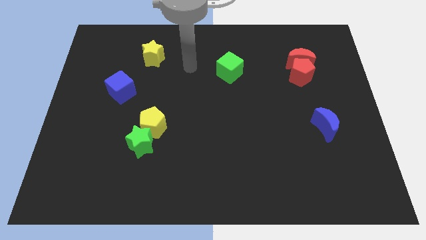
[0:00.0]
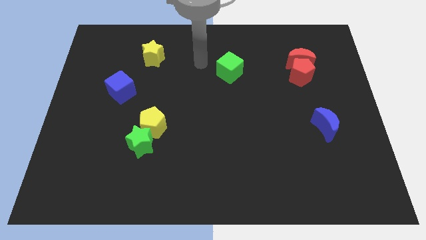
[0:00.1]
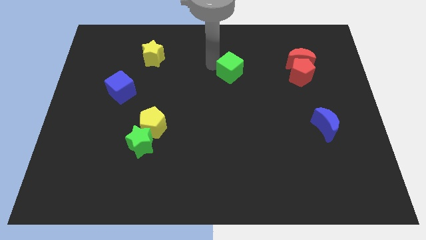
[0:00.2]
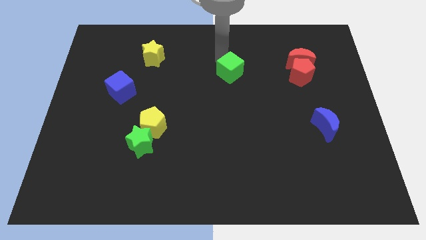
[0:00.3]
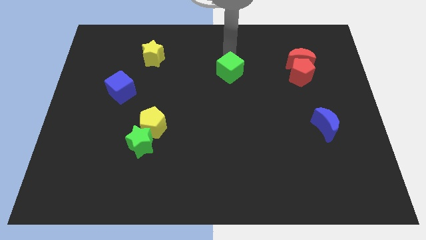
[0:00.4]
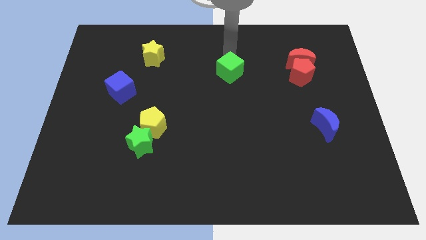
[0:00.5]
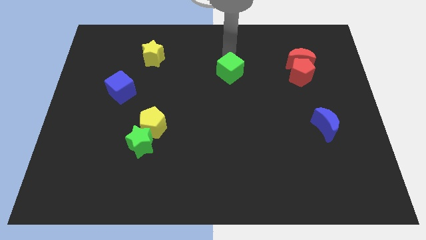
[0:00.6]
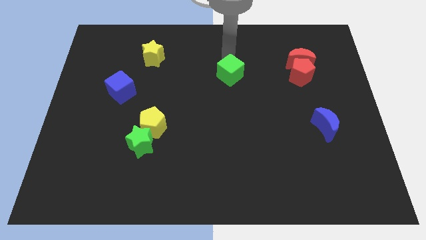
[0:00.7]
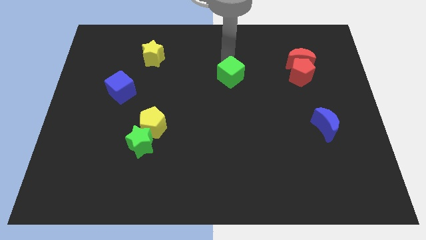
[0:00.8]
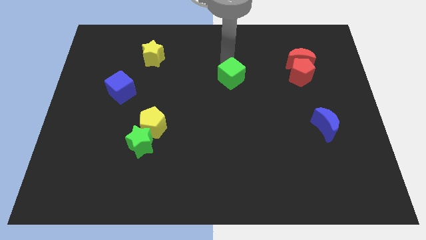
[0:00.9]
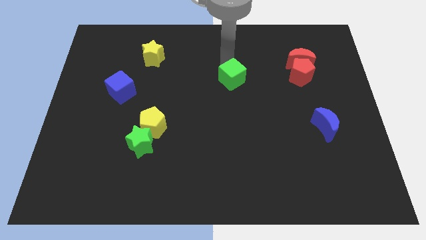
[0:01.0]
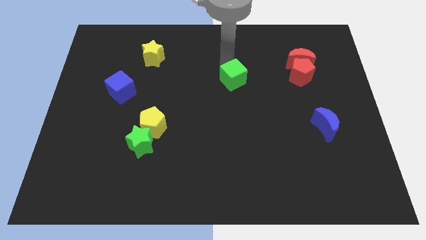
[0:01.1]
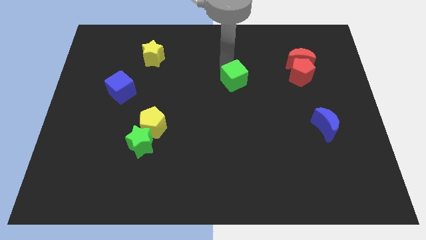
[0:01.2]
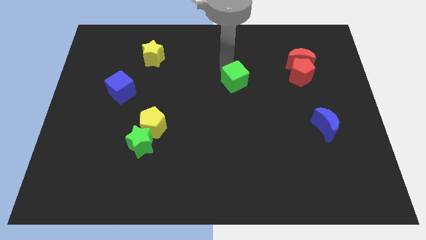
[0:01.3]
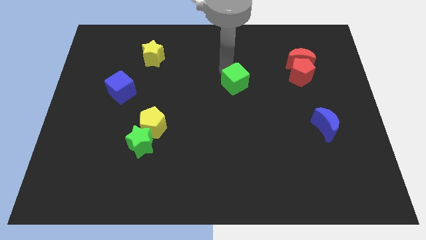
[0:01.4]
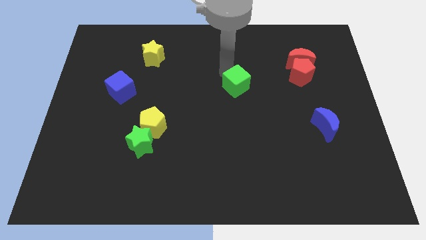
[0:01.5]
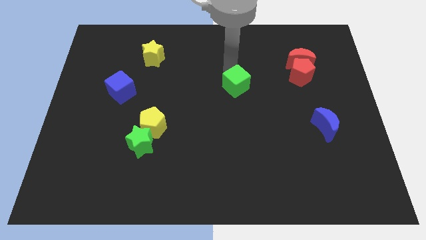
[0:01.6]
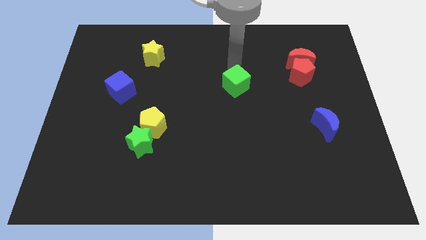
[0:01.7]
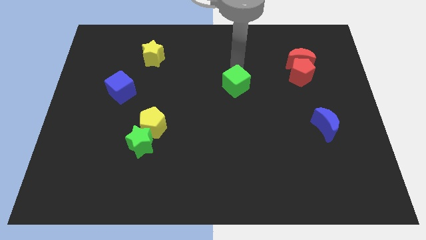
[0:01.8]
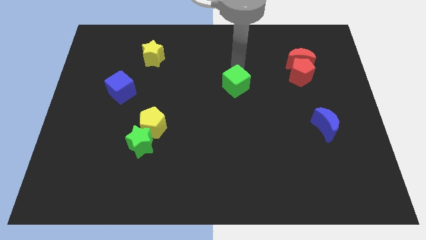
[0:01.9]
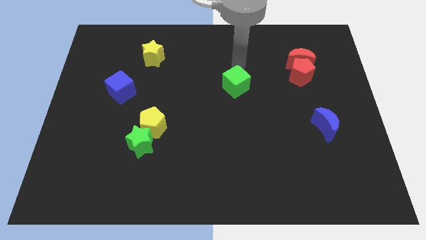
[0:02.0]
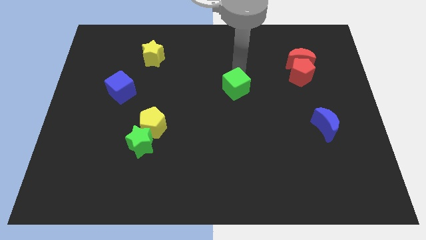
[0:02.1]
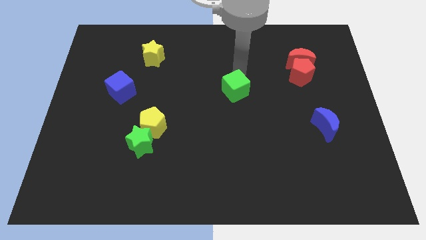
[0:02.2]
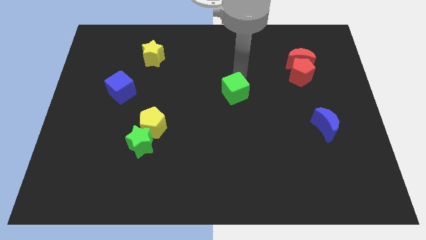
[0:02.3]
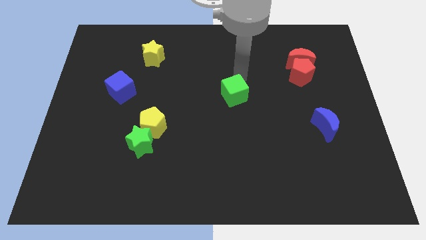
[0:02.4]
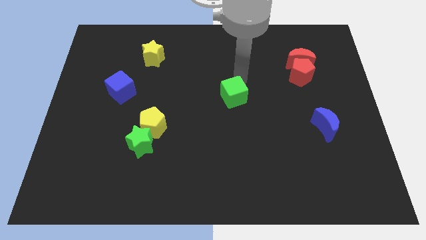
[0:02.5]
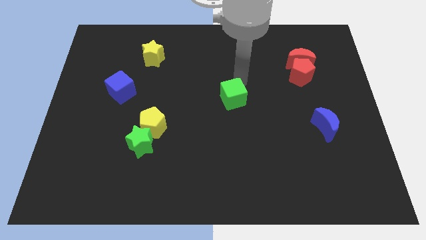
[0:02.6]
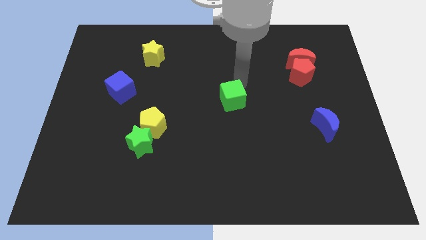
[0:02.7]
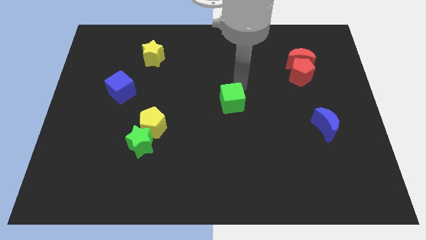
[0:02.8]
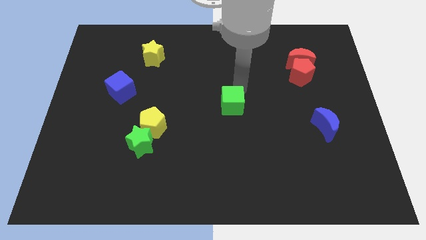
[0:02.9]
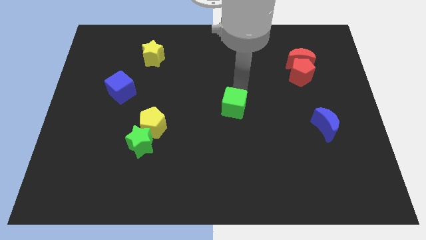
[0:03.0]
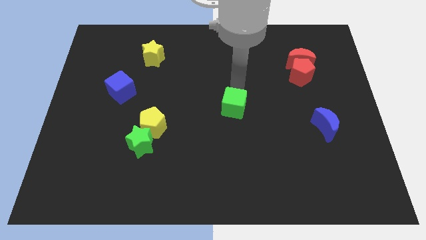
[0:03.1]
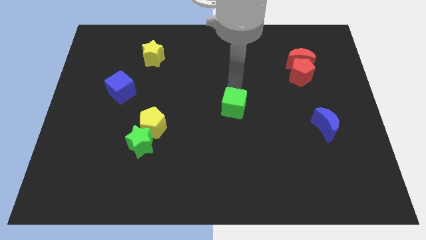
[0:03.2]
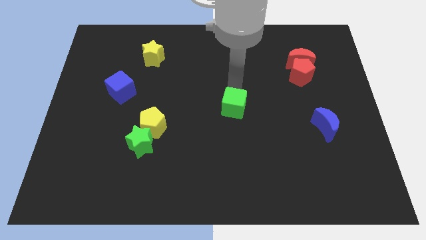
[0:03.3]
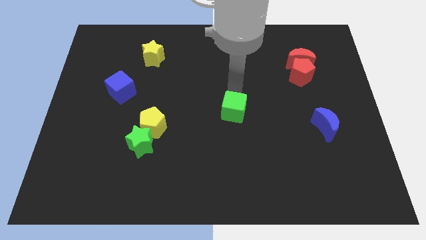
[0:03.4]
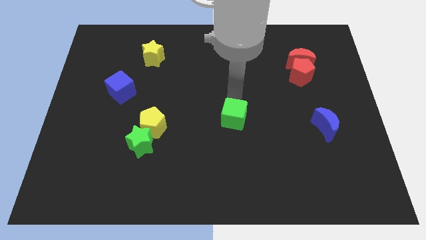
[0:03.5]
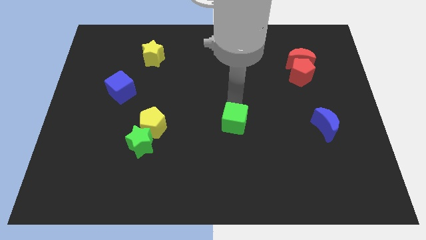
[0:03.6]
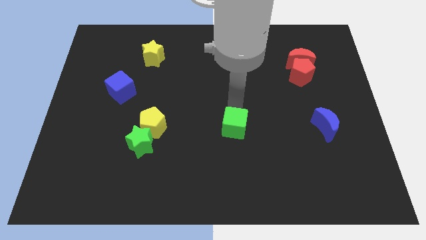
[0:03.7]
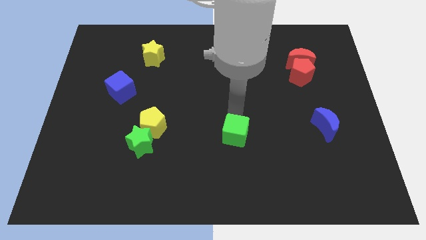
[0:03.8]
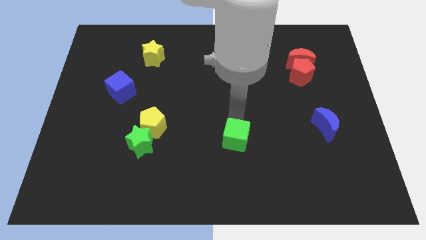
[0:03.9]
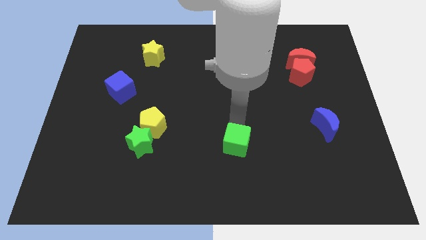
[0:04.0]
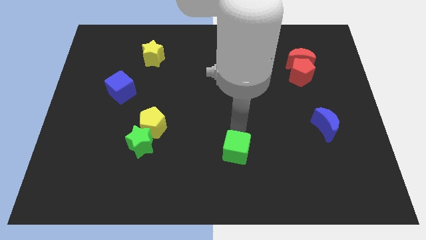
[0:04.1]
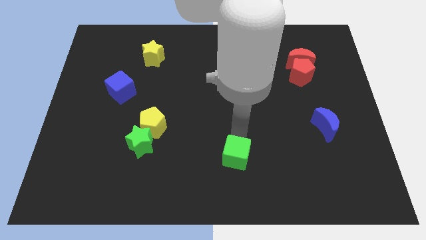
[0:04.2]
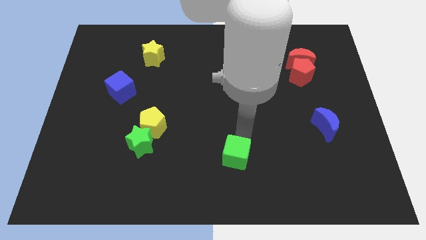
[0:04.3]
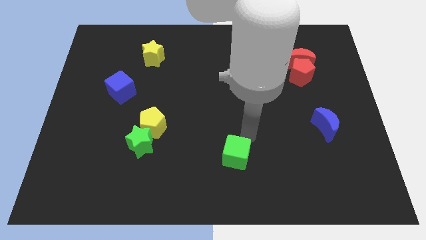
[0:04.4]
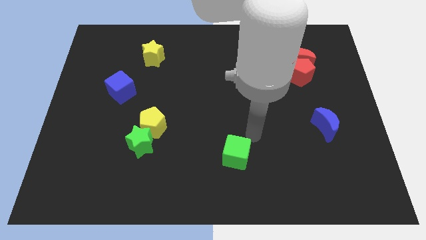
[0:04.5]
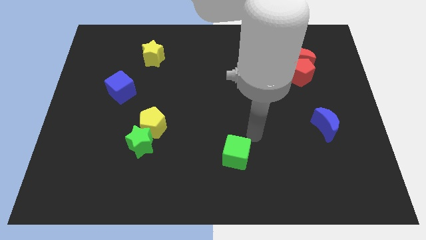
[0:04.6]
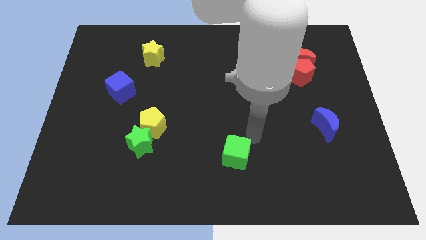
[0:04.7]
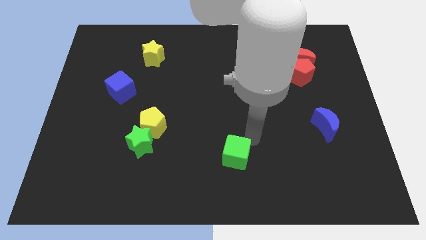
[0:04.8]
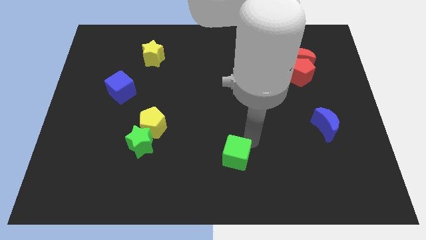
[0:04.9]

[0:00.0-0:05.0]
slide the green cube to the bottom side

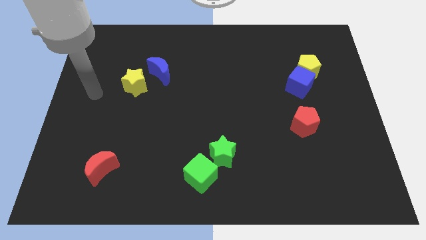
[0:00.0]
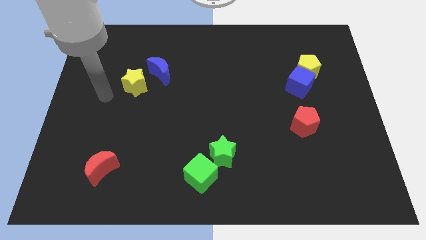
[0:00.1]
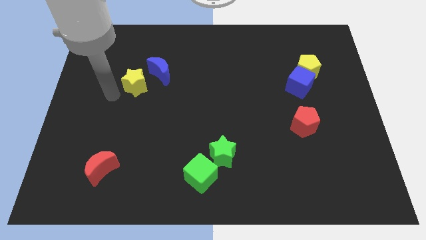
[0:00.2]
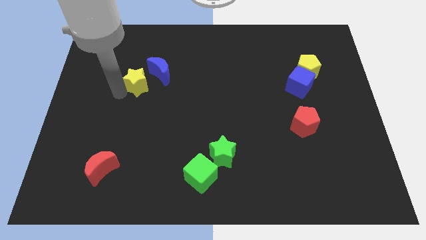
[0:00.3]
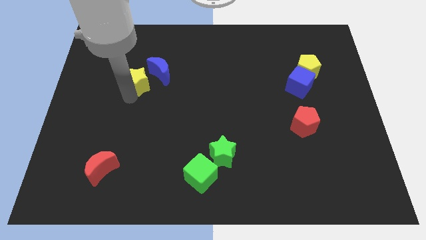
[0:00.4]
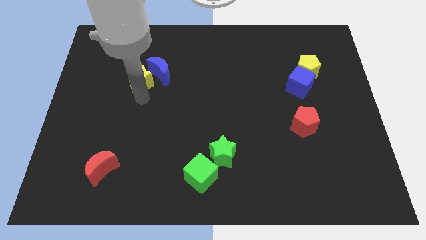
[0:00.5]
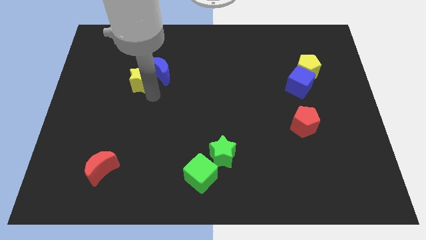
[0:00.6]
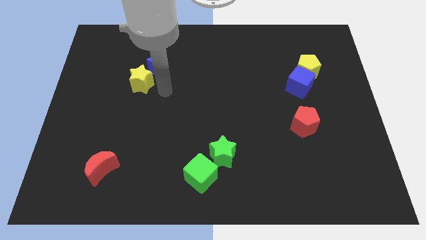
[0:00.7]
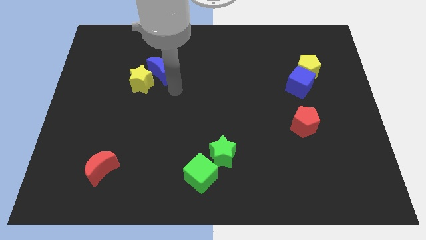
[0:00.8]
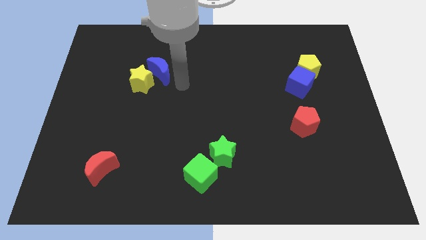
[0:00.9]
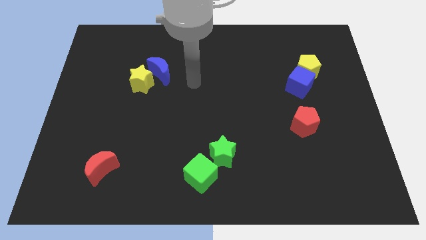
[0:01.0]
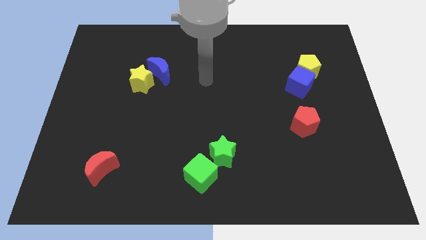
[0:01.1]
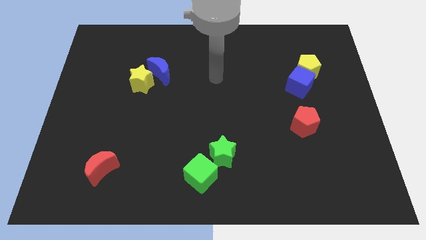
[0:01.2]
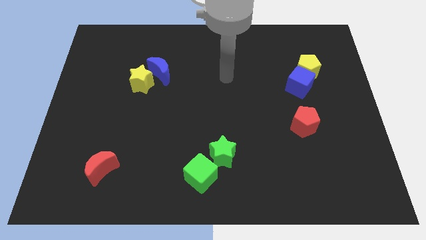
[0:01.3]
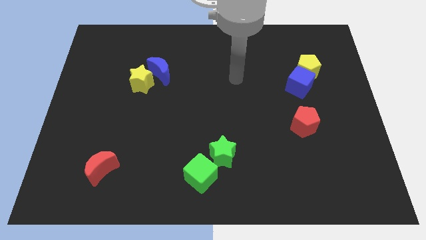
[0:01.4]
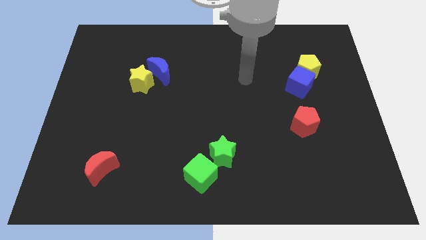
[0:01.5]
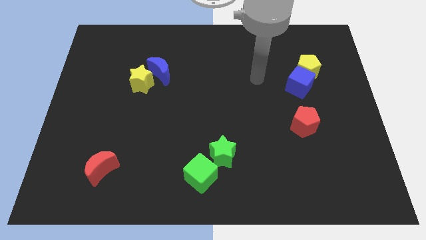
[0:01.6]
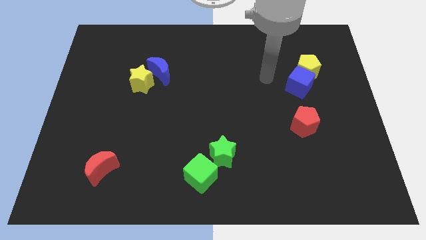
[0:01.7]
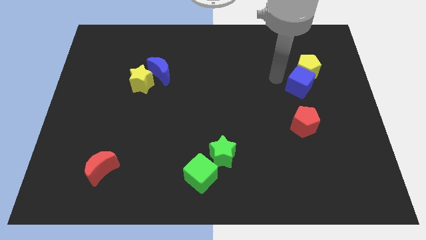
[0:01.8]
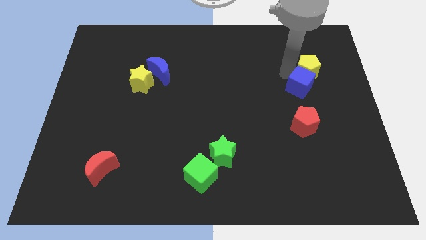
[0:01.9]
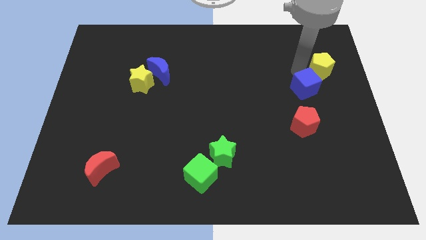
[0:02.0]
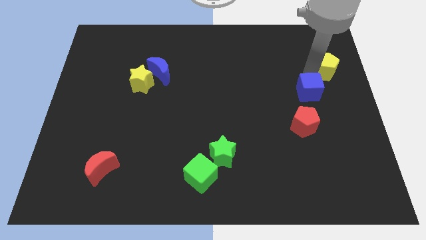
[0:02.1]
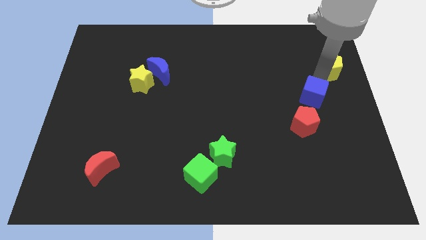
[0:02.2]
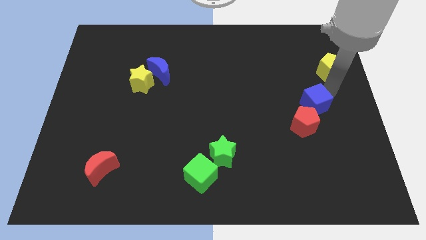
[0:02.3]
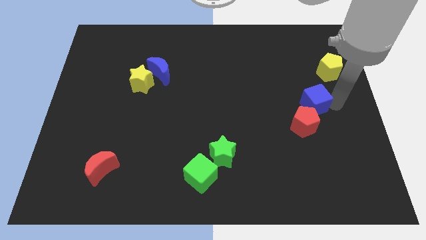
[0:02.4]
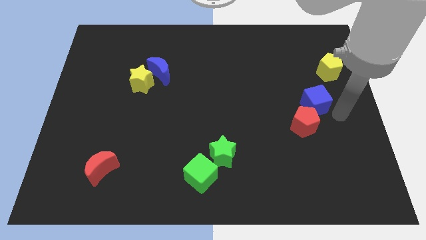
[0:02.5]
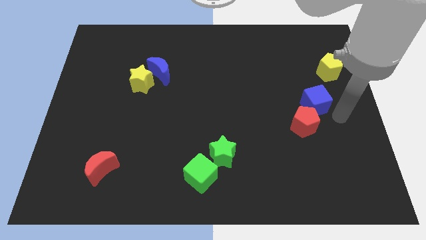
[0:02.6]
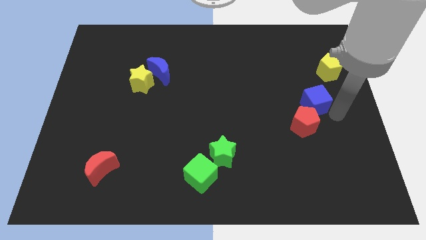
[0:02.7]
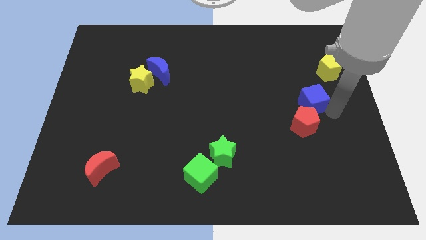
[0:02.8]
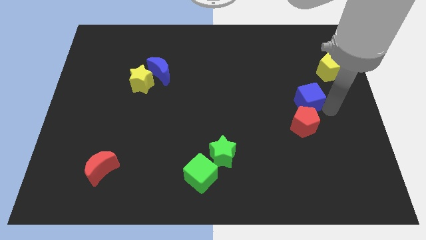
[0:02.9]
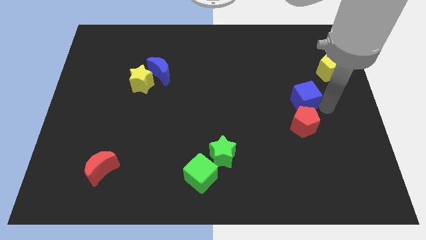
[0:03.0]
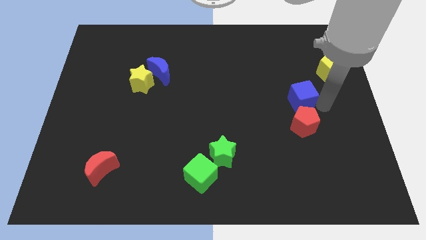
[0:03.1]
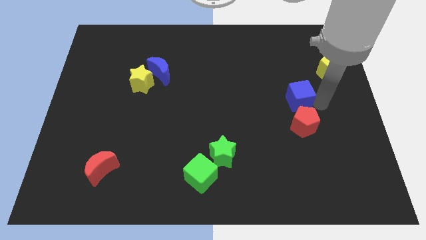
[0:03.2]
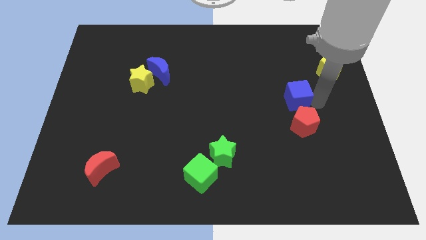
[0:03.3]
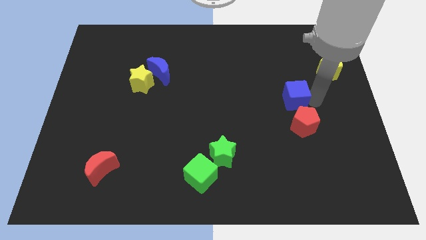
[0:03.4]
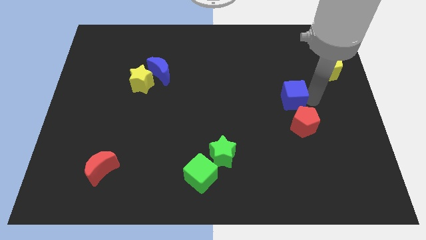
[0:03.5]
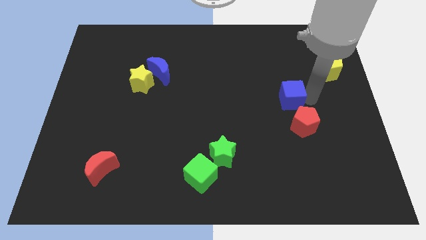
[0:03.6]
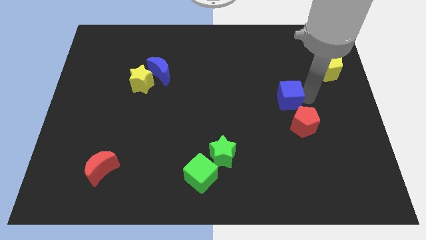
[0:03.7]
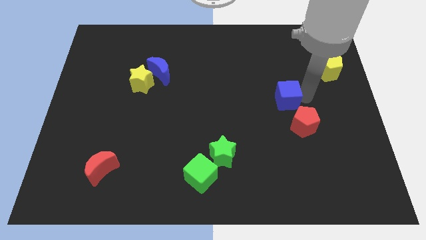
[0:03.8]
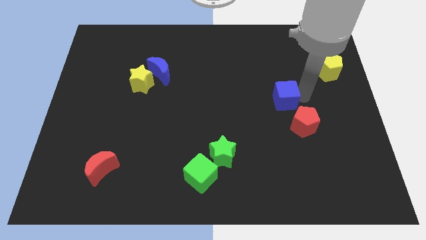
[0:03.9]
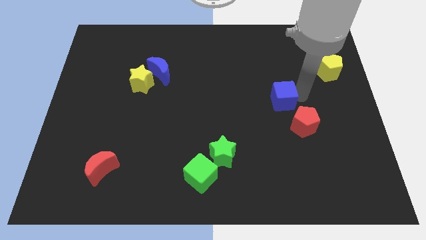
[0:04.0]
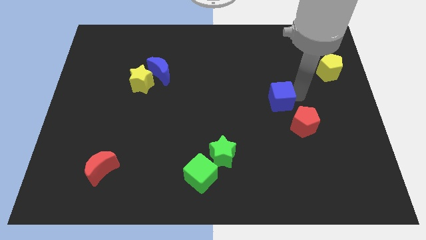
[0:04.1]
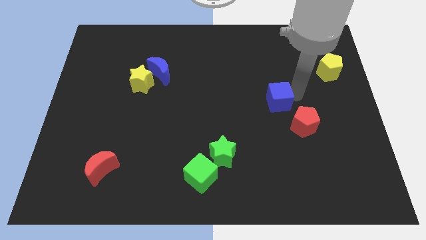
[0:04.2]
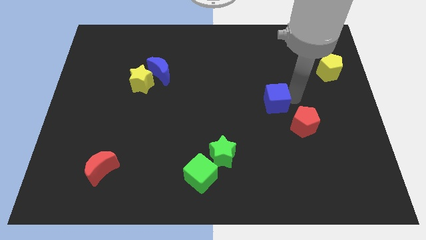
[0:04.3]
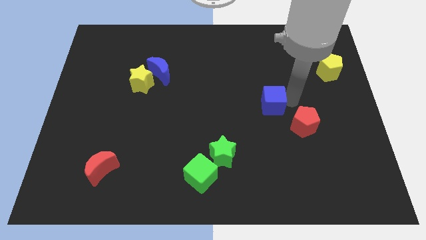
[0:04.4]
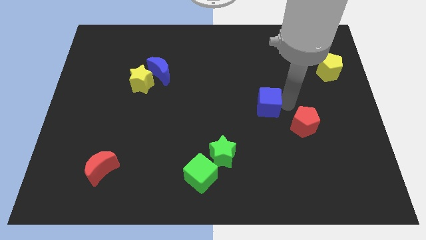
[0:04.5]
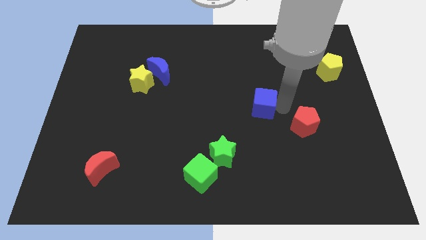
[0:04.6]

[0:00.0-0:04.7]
slide the blue cube to the middle of the board
